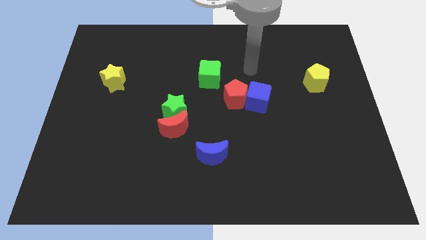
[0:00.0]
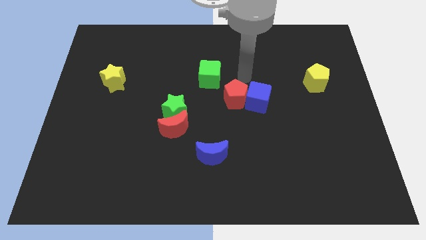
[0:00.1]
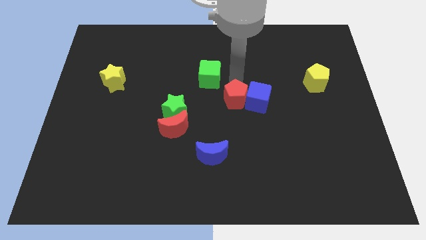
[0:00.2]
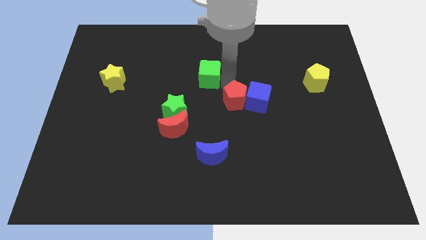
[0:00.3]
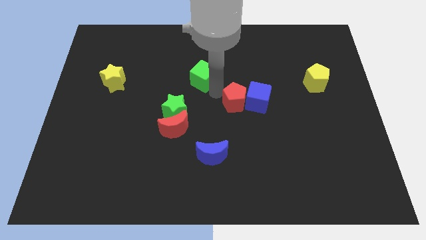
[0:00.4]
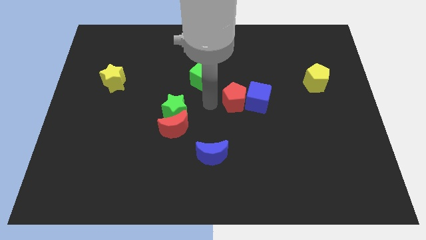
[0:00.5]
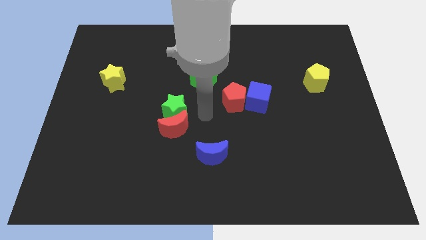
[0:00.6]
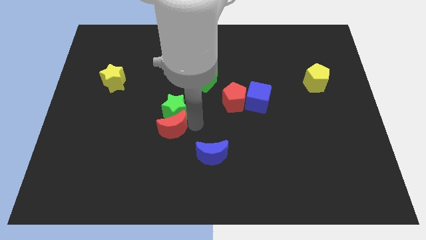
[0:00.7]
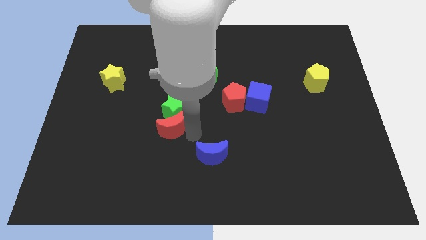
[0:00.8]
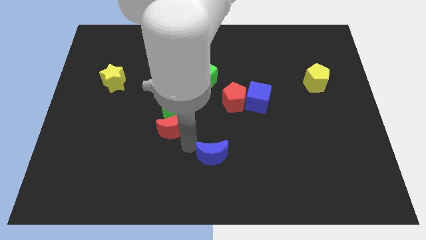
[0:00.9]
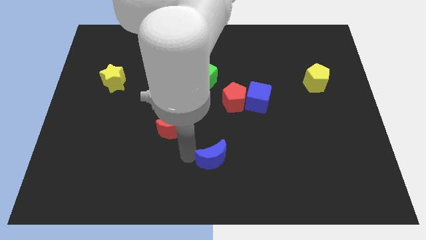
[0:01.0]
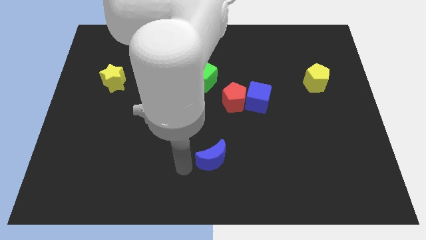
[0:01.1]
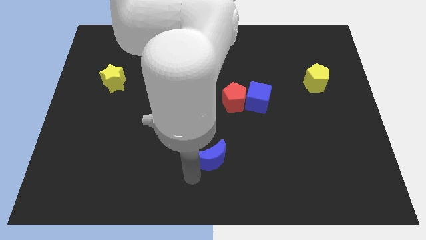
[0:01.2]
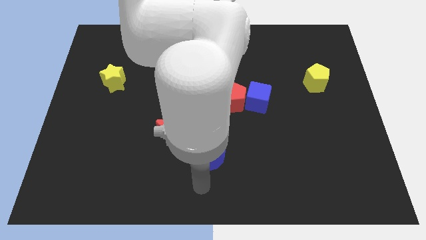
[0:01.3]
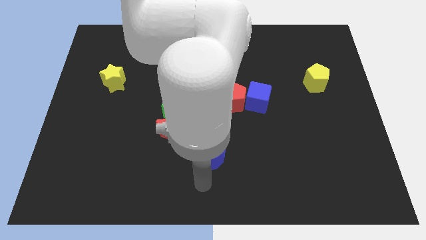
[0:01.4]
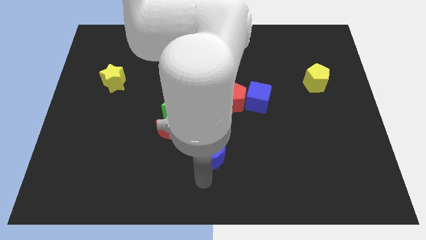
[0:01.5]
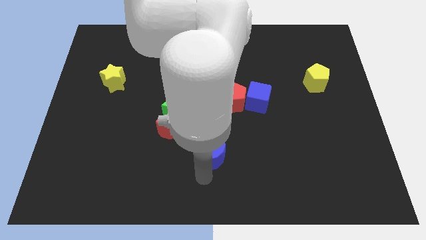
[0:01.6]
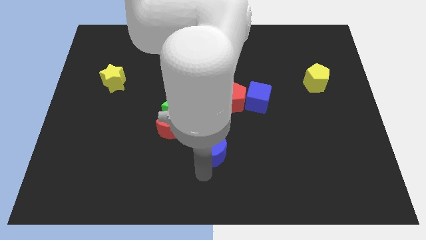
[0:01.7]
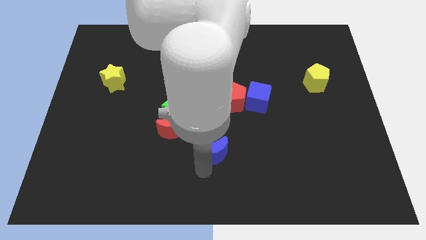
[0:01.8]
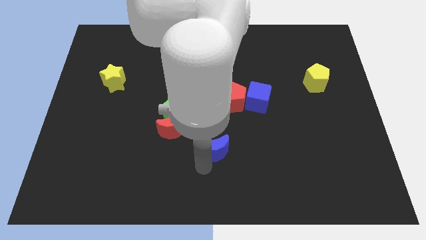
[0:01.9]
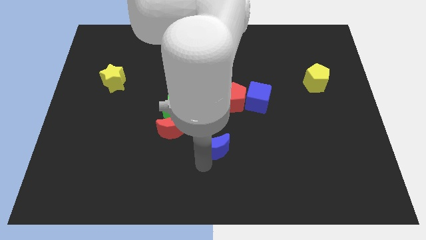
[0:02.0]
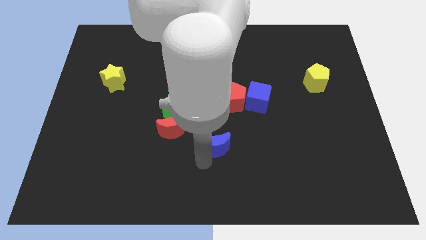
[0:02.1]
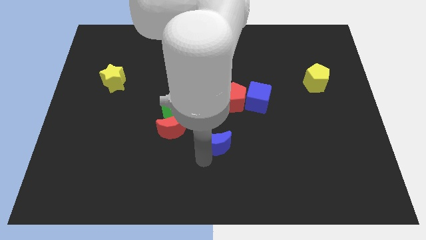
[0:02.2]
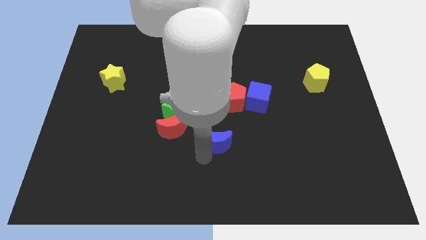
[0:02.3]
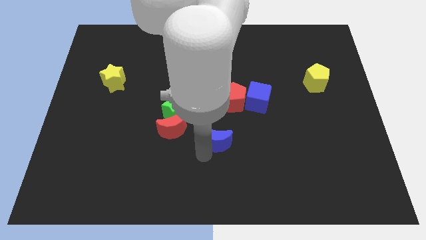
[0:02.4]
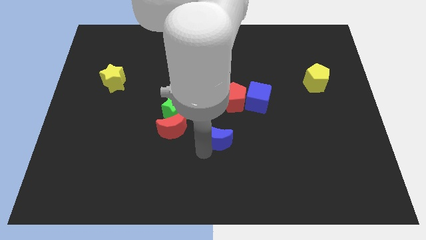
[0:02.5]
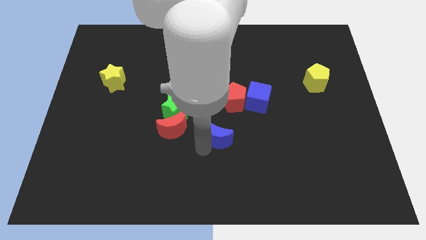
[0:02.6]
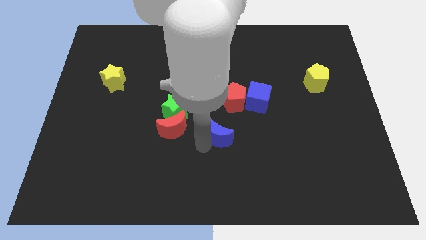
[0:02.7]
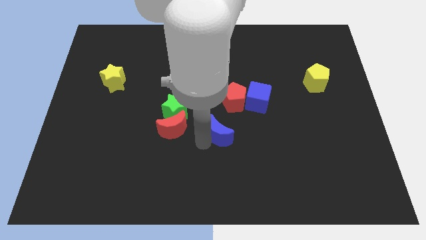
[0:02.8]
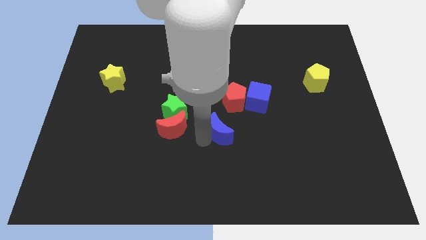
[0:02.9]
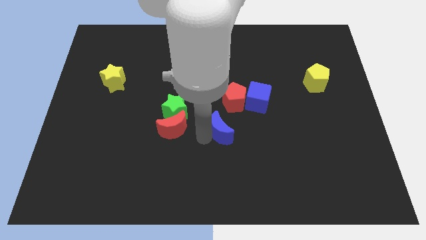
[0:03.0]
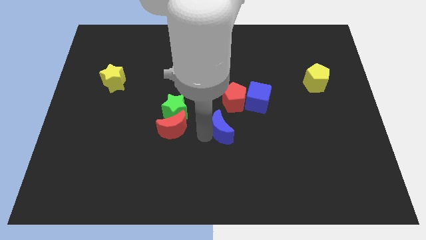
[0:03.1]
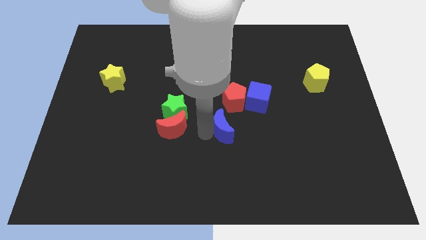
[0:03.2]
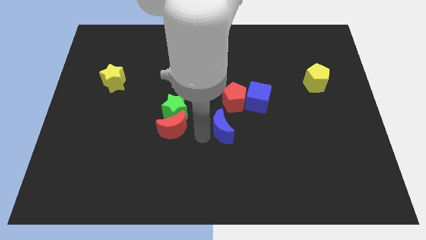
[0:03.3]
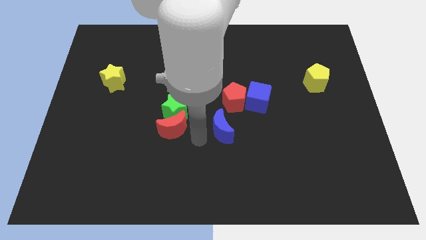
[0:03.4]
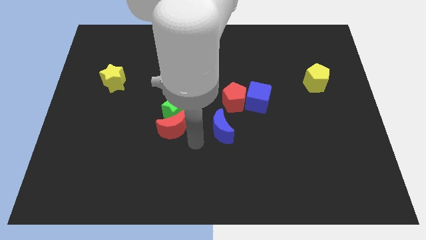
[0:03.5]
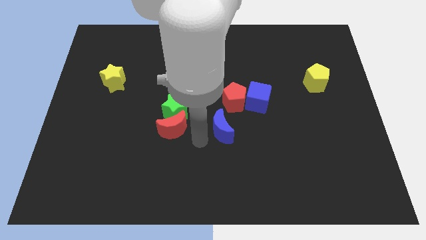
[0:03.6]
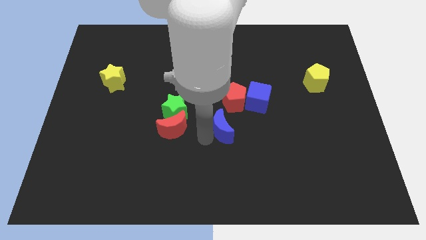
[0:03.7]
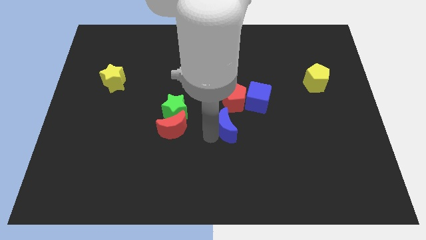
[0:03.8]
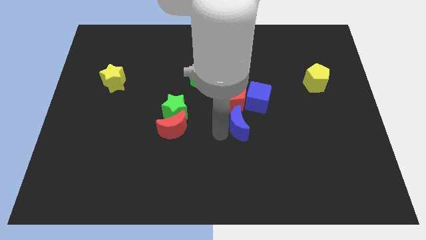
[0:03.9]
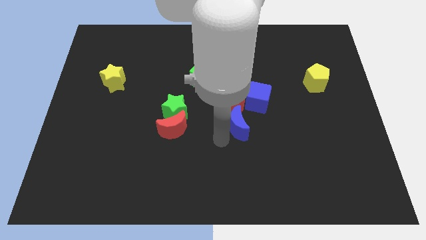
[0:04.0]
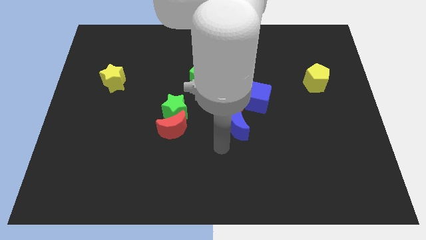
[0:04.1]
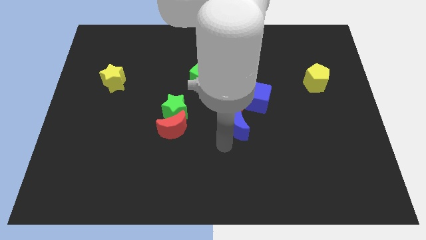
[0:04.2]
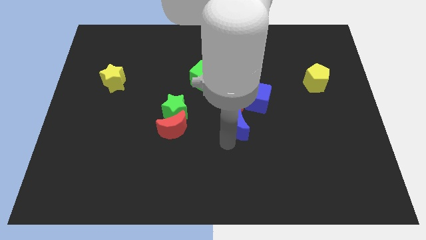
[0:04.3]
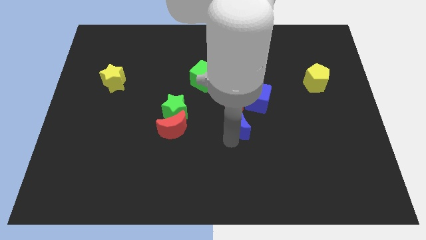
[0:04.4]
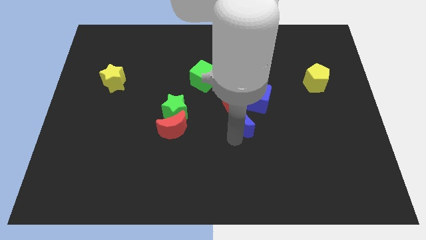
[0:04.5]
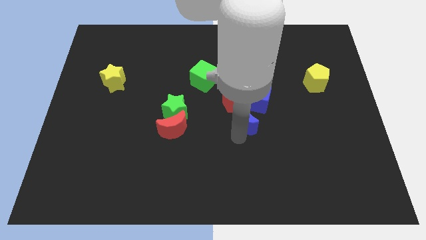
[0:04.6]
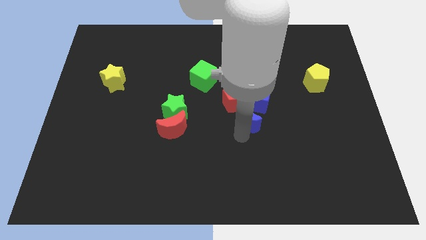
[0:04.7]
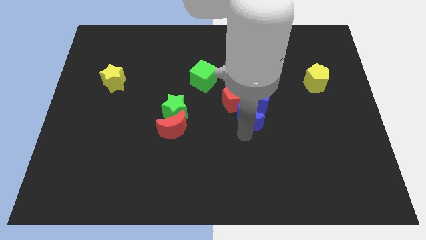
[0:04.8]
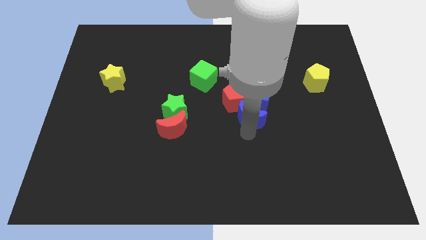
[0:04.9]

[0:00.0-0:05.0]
push the blue moon close to the blue cube

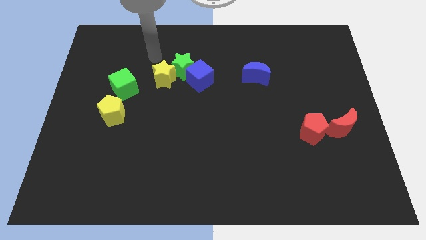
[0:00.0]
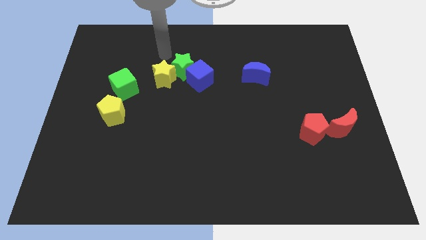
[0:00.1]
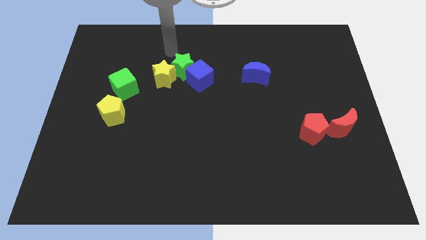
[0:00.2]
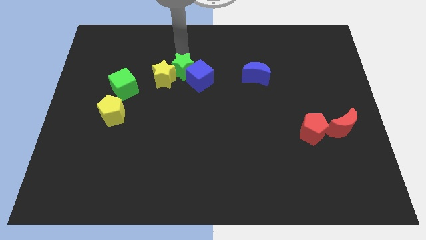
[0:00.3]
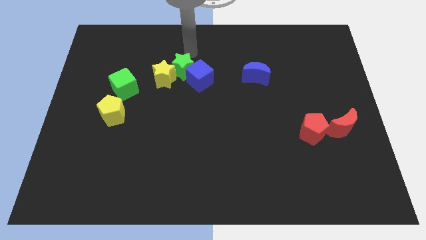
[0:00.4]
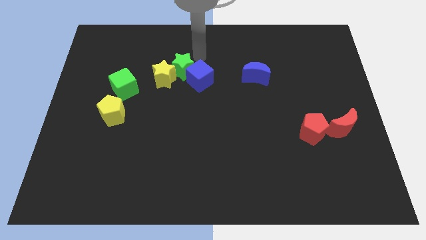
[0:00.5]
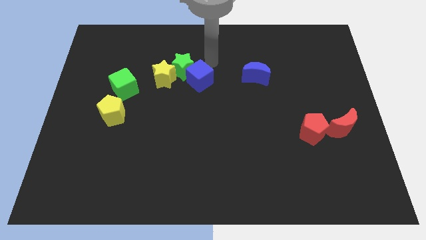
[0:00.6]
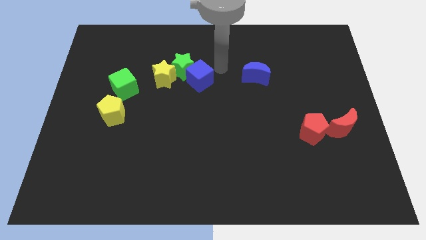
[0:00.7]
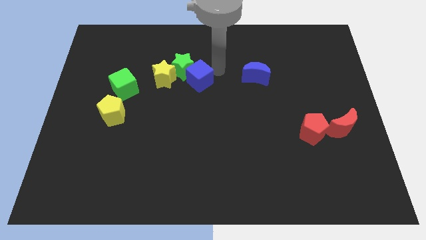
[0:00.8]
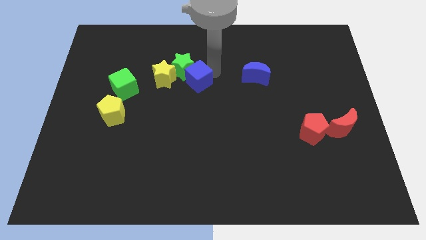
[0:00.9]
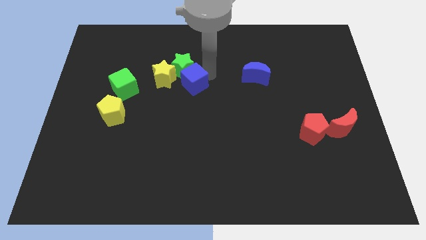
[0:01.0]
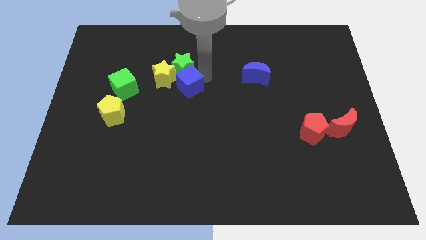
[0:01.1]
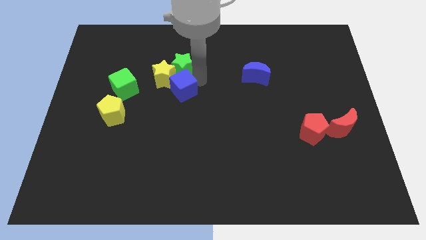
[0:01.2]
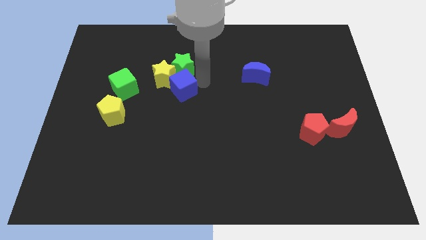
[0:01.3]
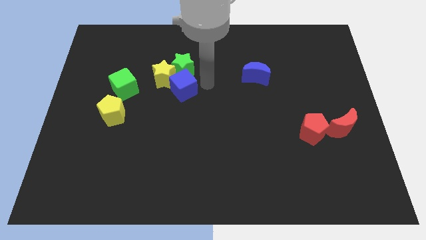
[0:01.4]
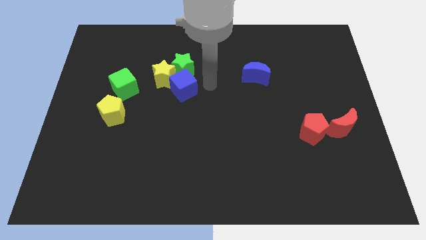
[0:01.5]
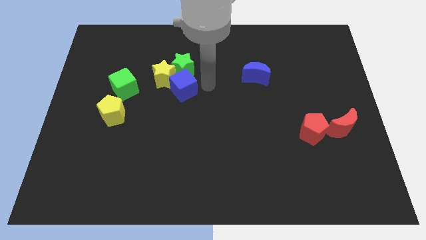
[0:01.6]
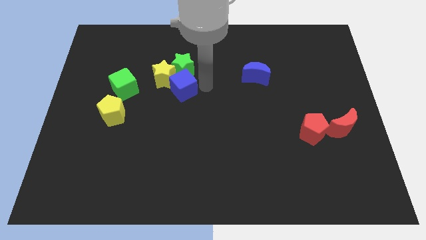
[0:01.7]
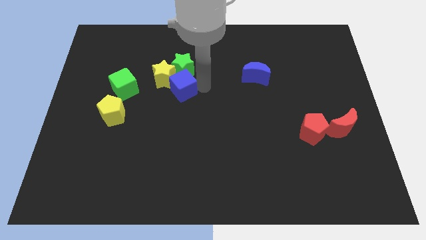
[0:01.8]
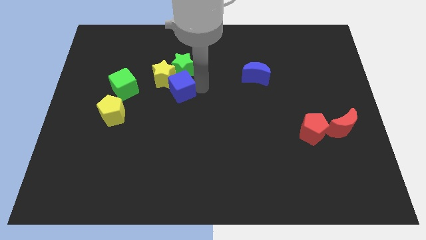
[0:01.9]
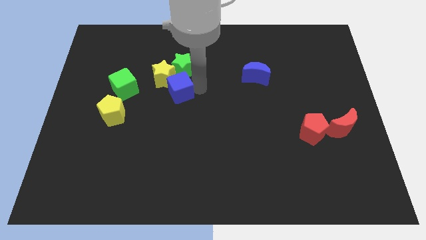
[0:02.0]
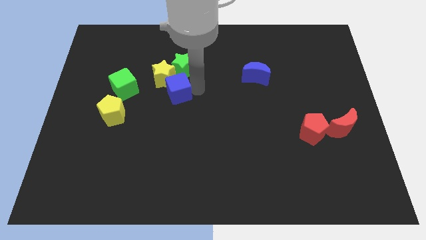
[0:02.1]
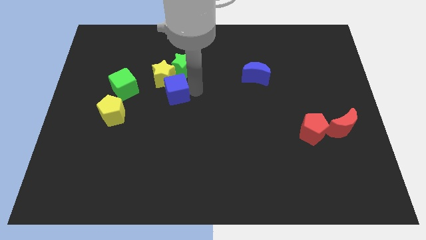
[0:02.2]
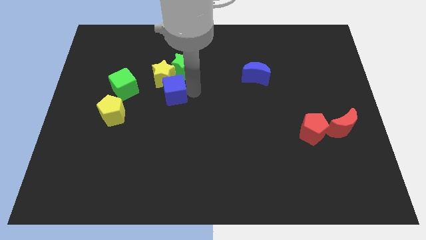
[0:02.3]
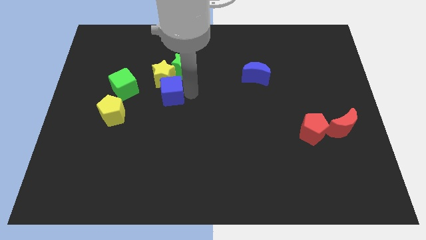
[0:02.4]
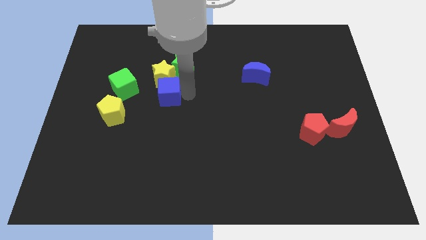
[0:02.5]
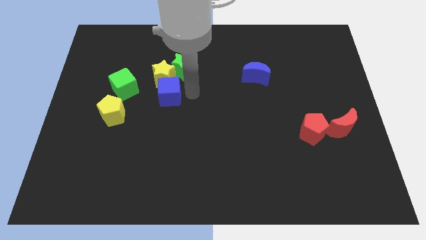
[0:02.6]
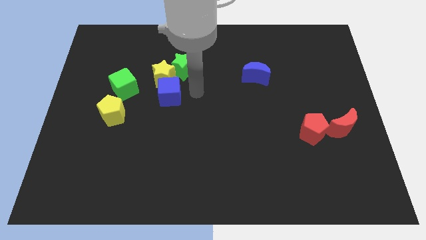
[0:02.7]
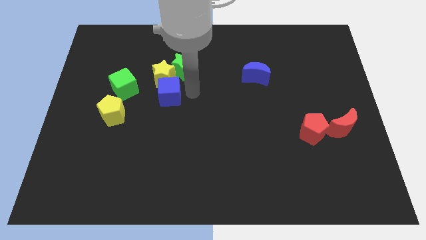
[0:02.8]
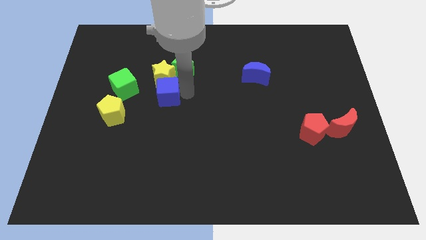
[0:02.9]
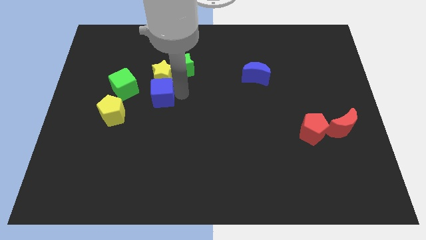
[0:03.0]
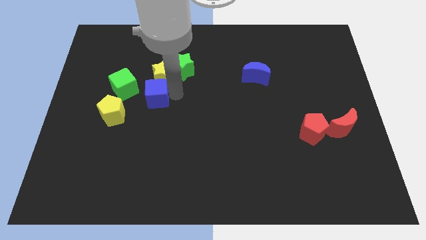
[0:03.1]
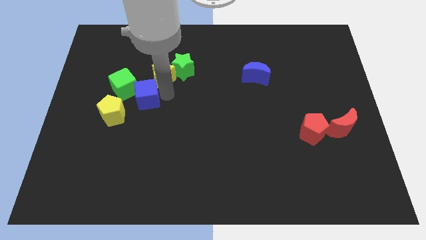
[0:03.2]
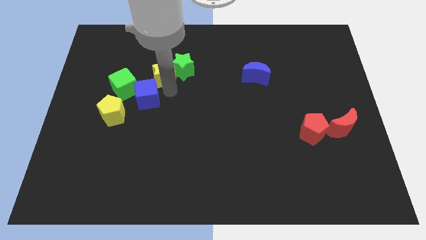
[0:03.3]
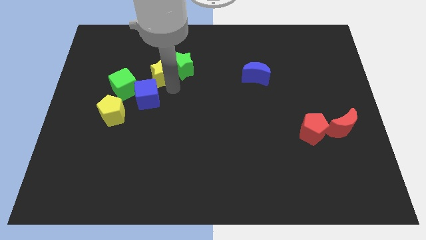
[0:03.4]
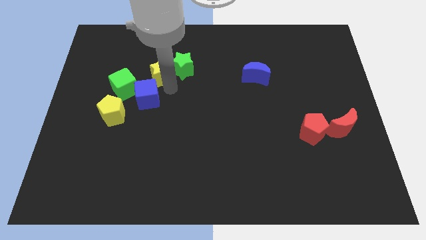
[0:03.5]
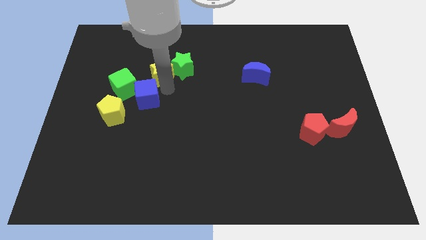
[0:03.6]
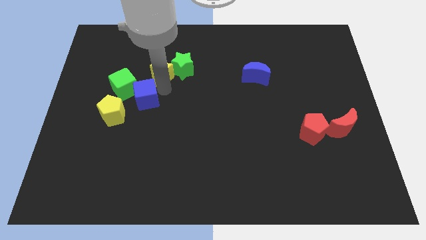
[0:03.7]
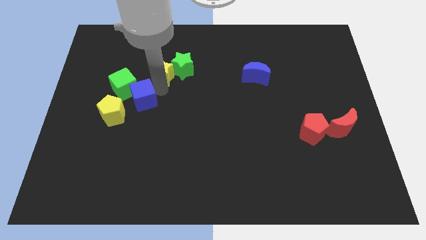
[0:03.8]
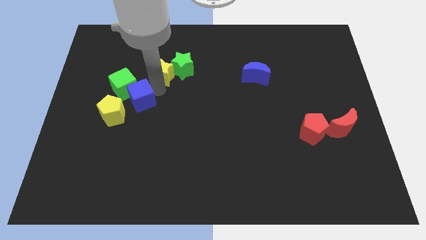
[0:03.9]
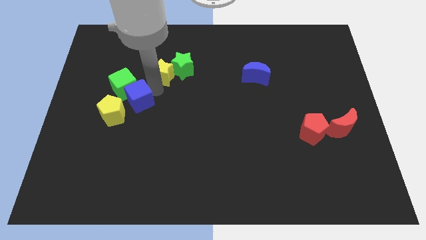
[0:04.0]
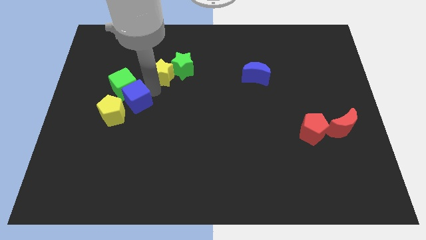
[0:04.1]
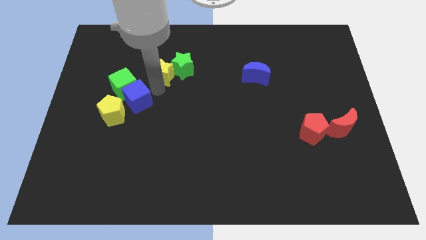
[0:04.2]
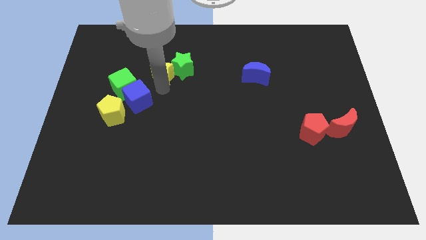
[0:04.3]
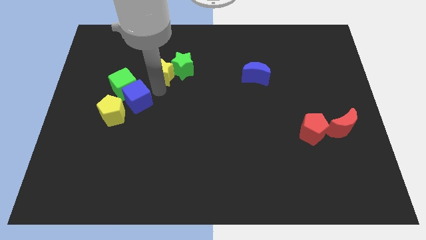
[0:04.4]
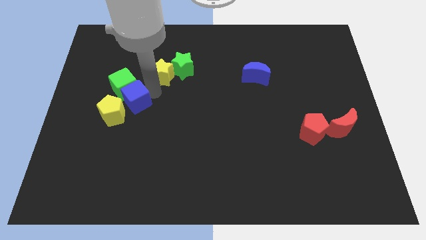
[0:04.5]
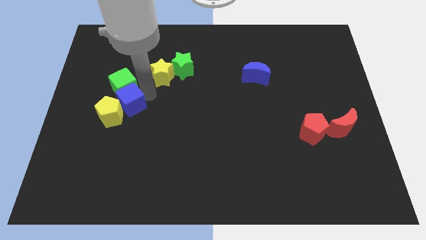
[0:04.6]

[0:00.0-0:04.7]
push the blue cube next to the yellow pentagon
